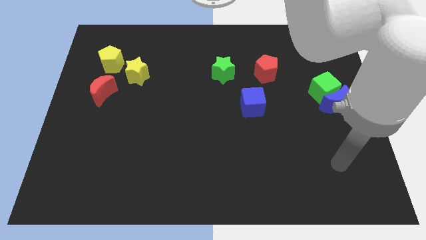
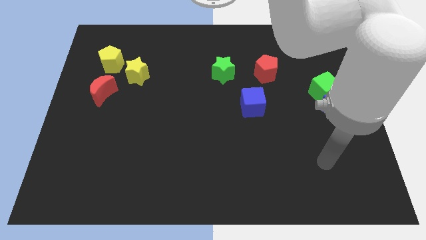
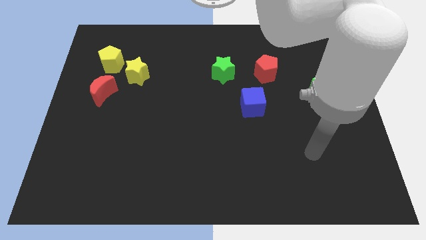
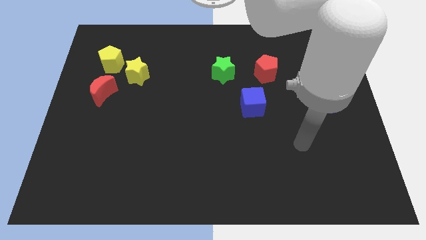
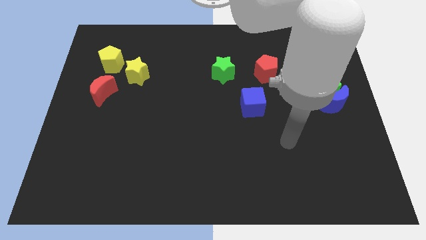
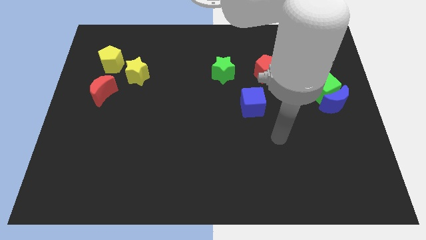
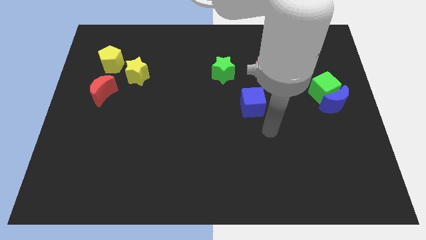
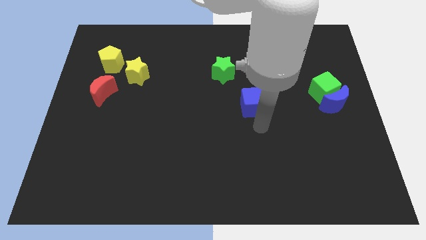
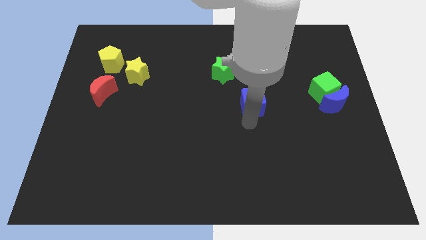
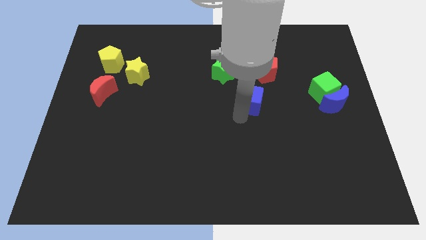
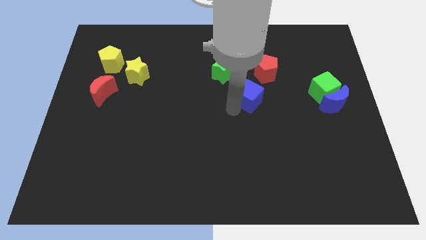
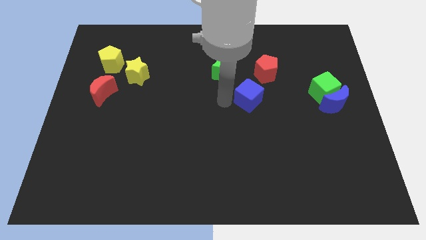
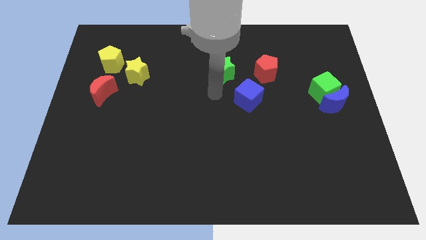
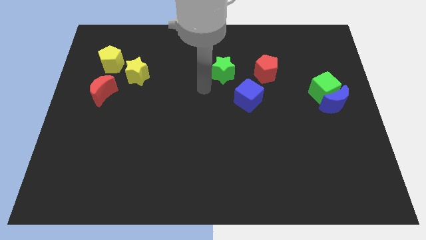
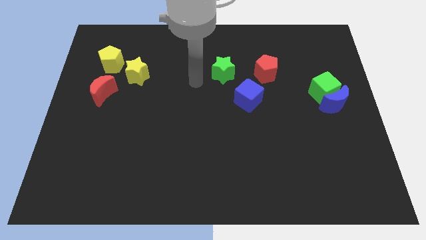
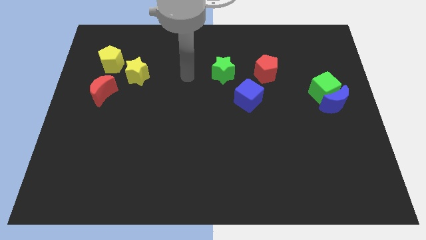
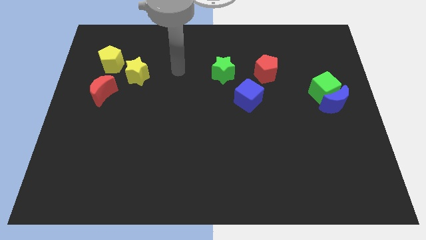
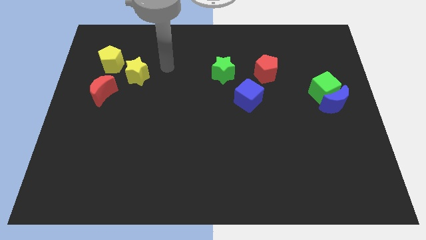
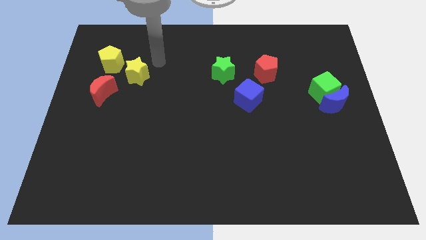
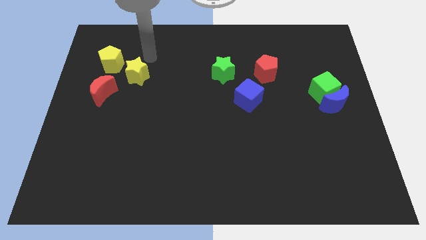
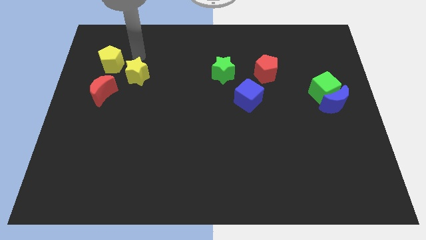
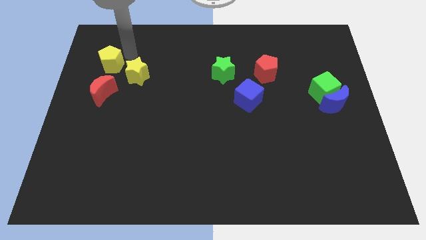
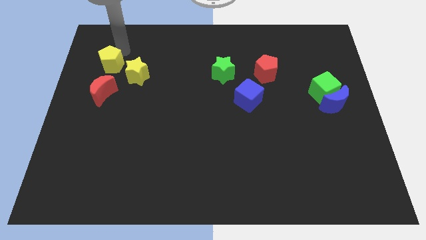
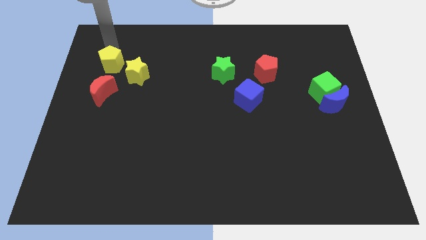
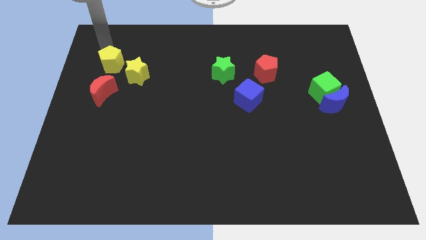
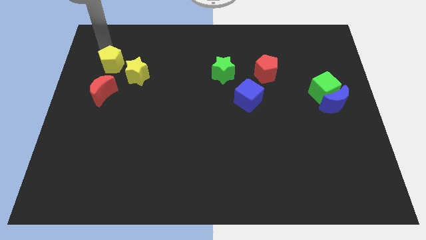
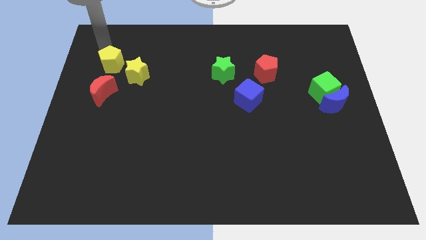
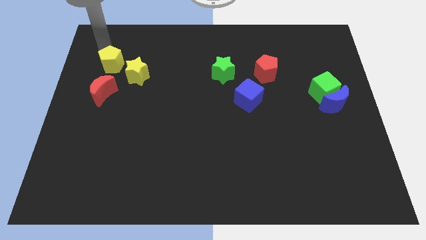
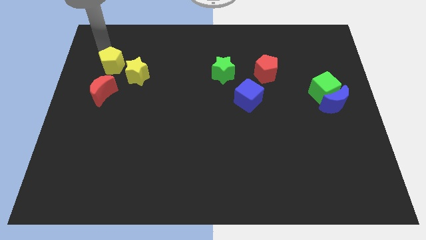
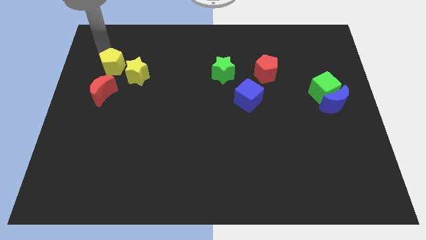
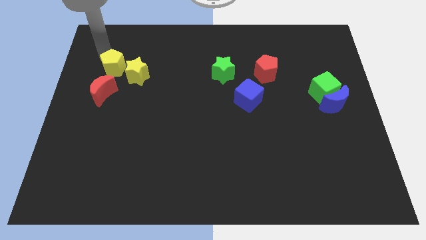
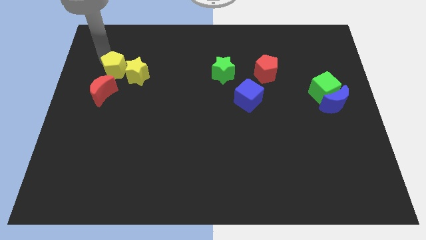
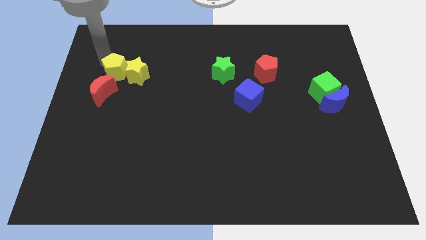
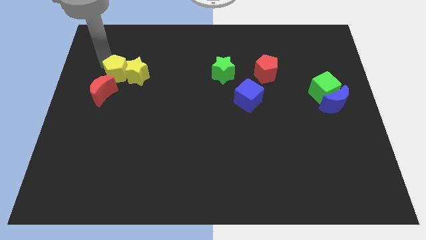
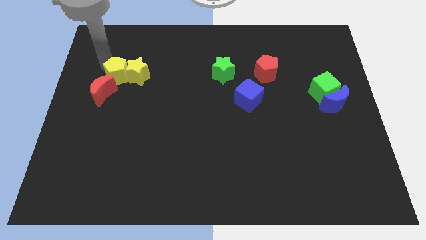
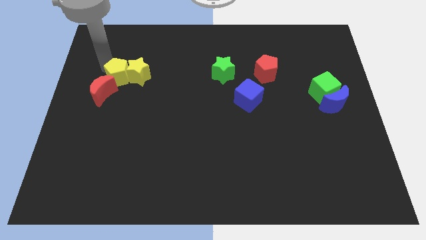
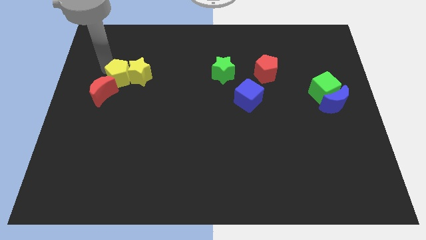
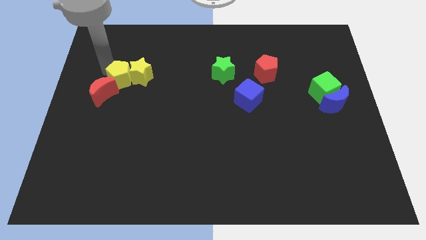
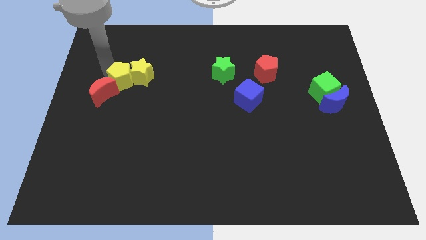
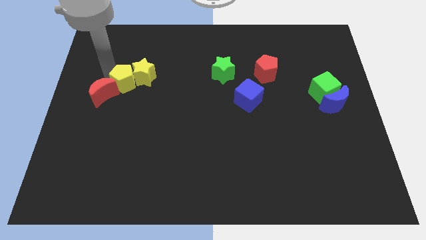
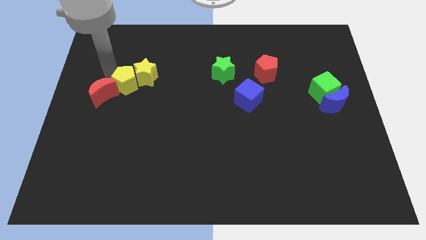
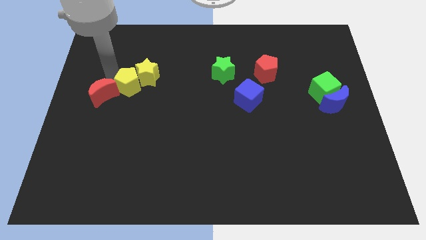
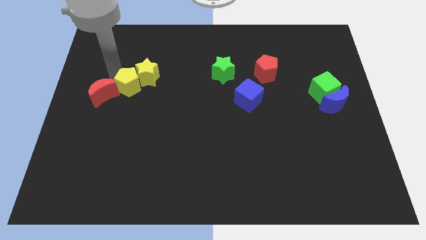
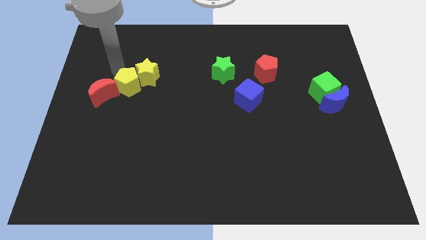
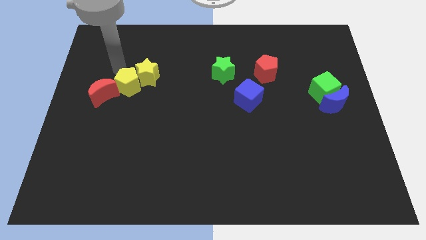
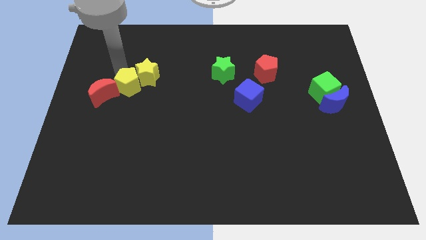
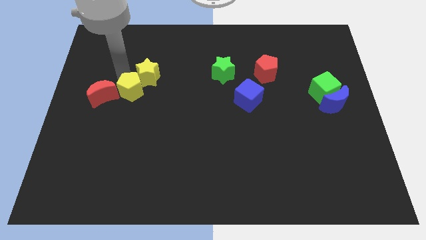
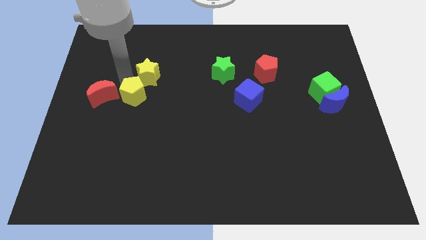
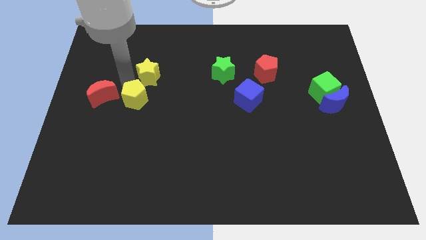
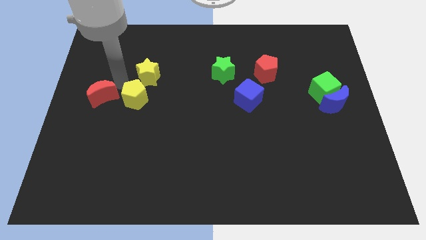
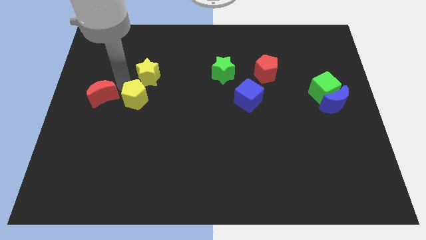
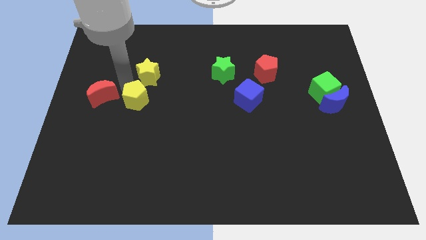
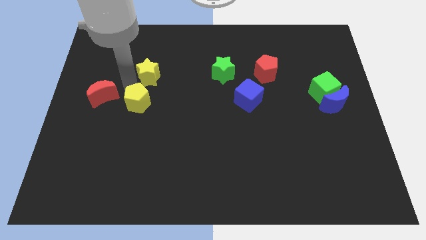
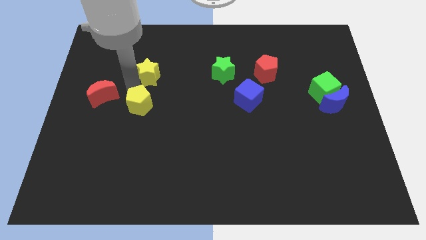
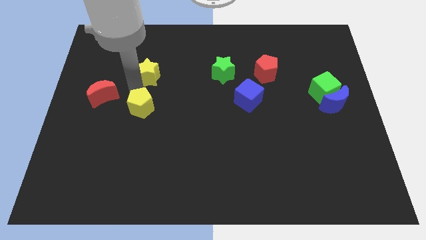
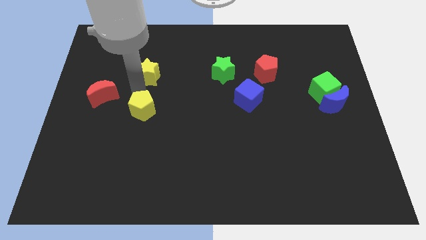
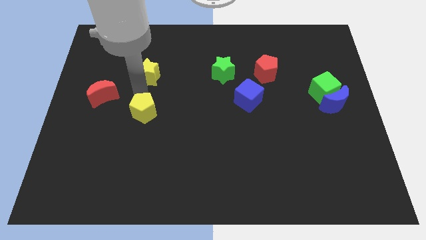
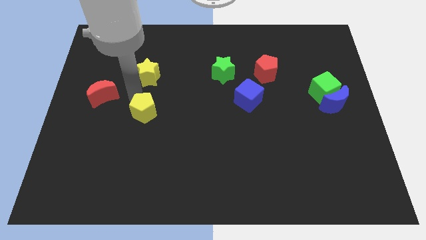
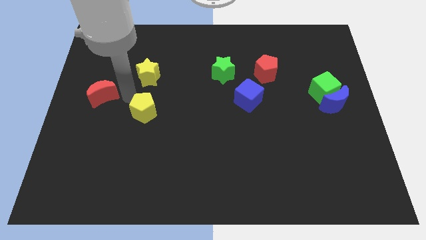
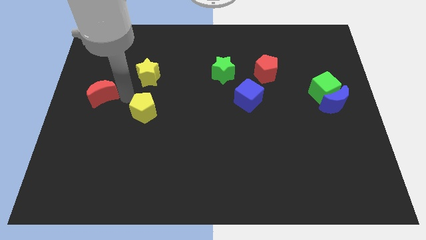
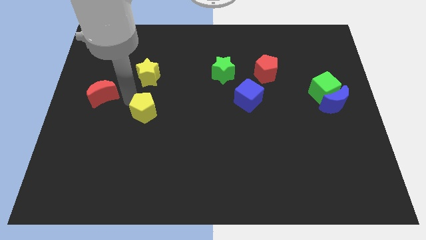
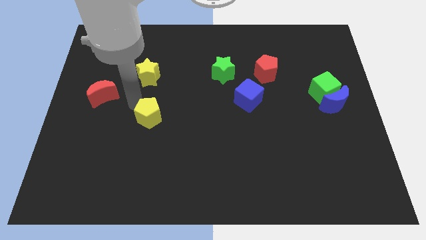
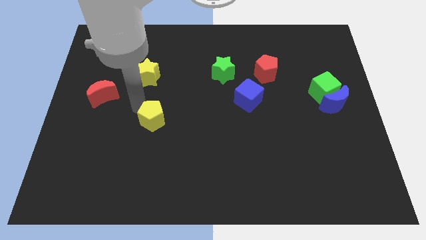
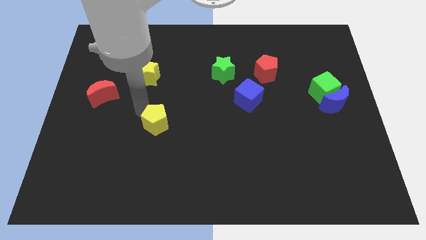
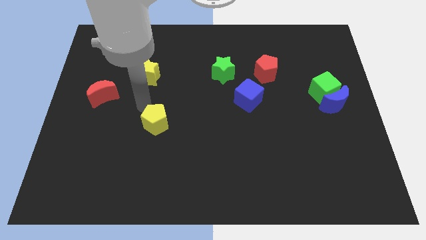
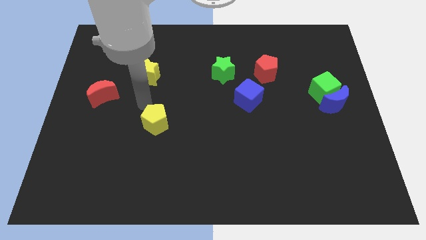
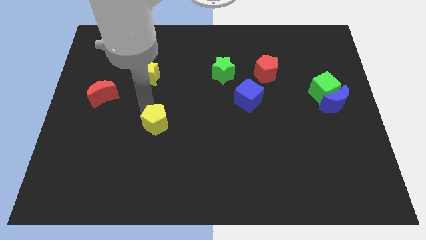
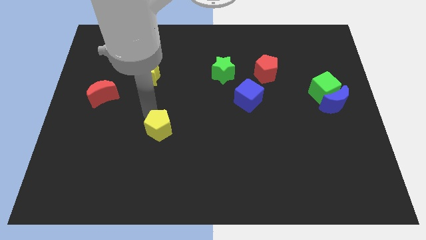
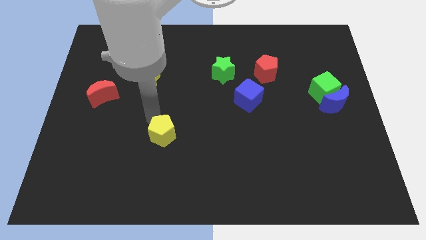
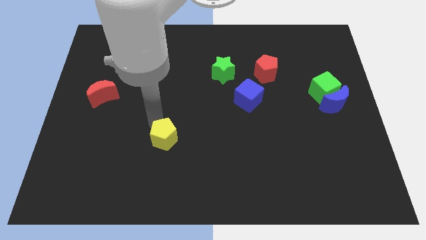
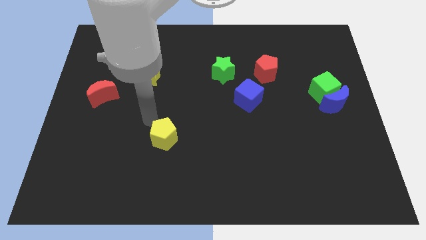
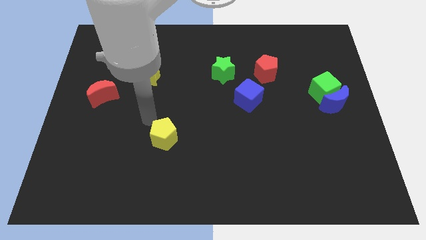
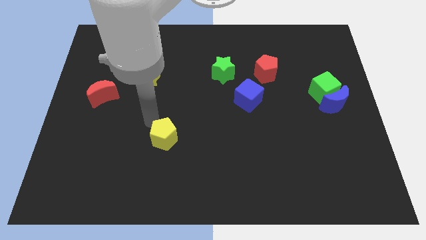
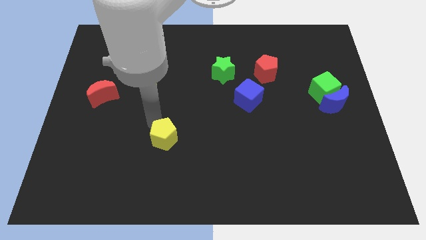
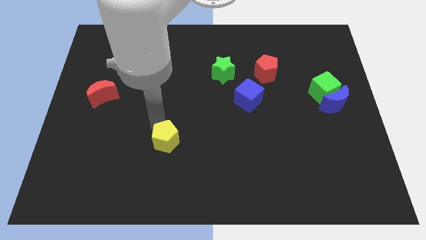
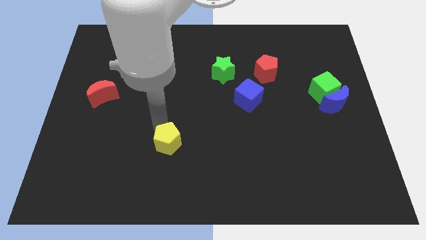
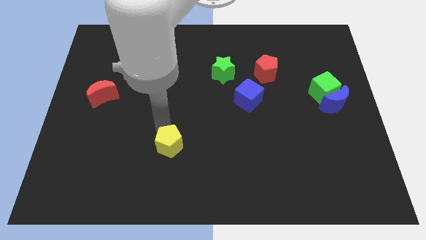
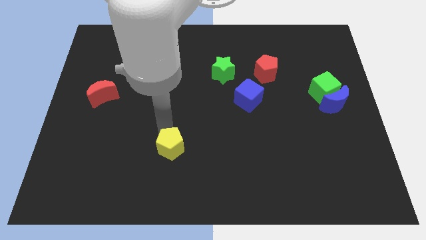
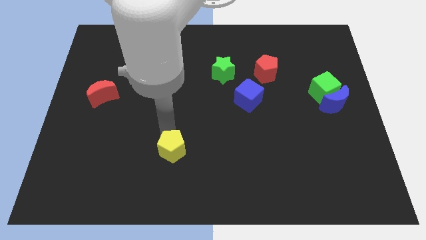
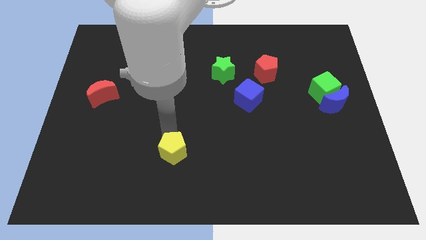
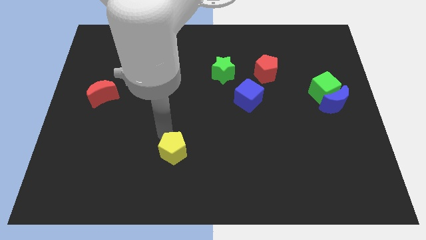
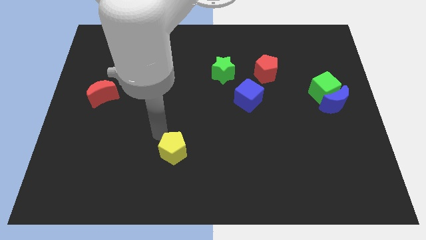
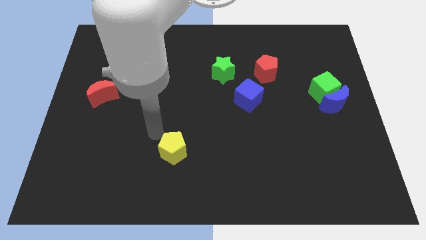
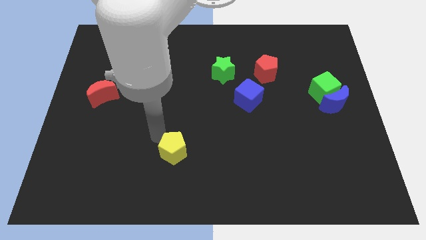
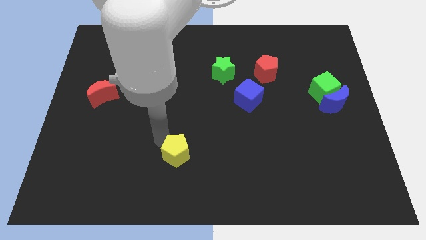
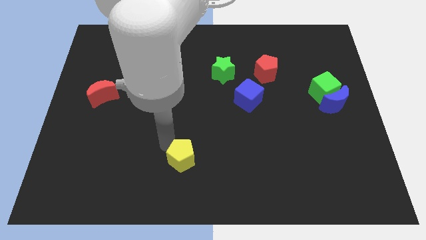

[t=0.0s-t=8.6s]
slide the yellow pentagon to the bottom
